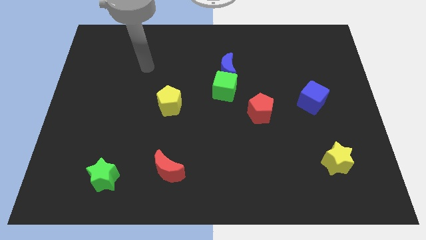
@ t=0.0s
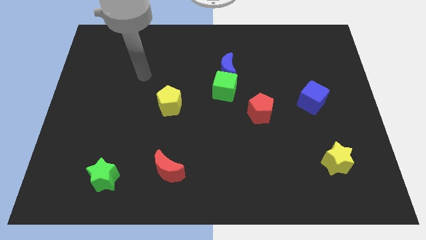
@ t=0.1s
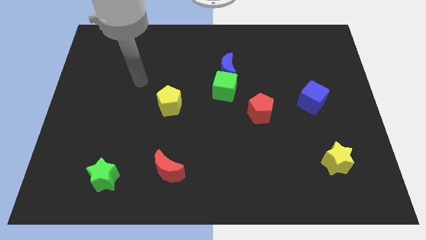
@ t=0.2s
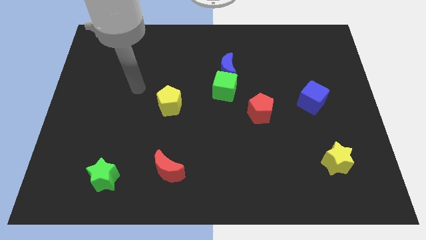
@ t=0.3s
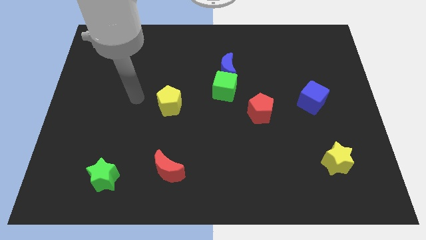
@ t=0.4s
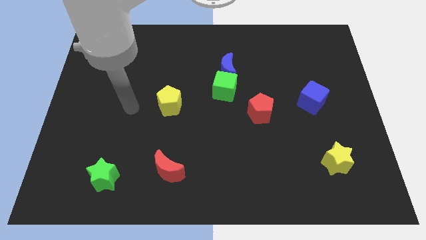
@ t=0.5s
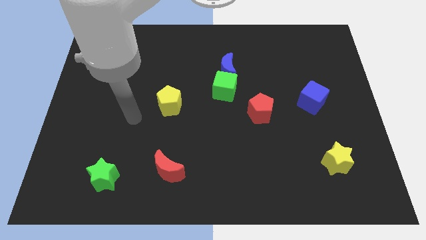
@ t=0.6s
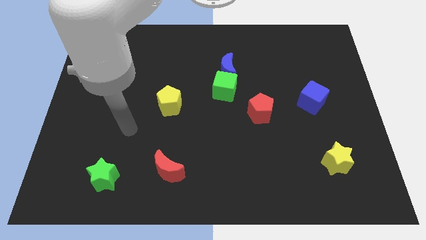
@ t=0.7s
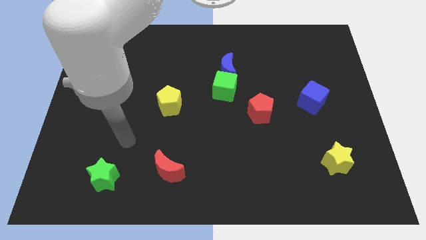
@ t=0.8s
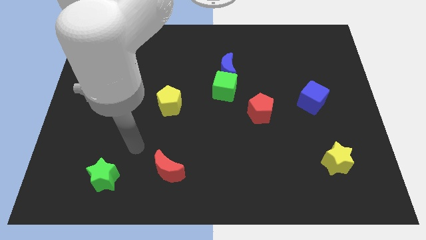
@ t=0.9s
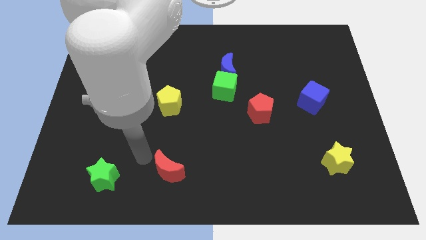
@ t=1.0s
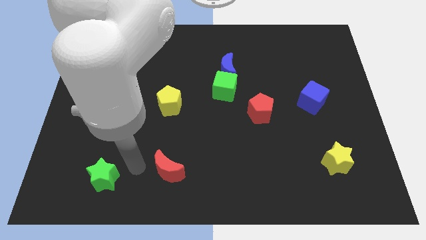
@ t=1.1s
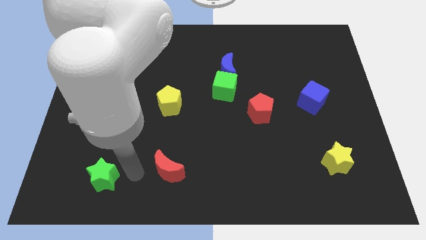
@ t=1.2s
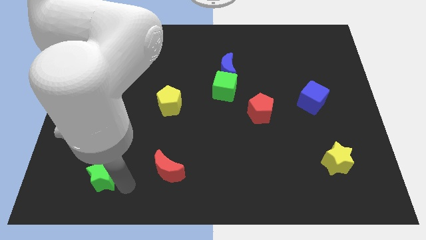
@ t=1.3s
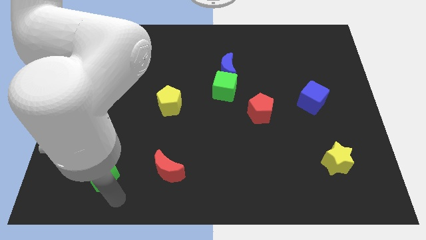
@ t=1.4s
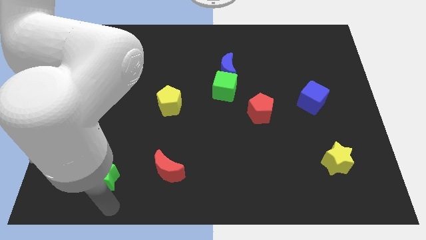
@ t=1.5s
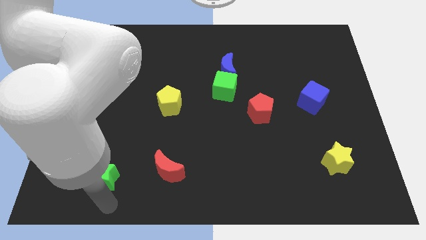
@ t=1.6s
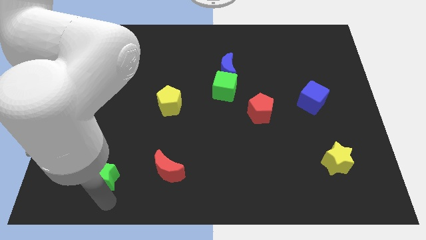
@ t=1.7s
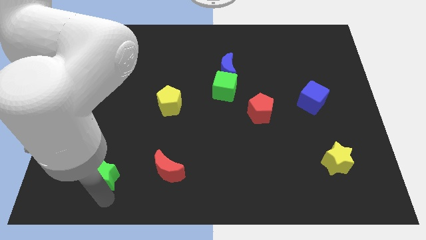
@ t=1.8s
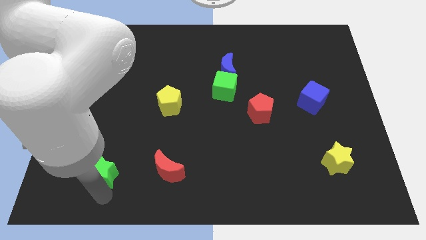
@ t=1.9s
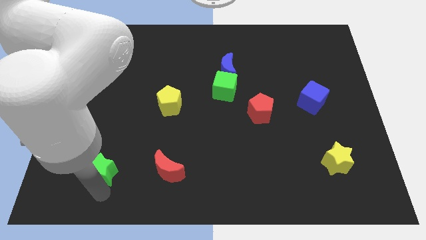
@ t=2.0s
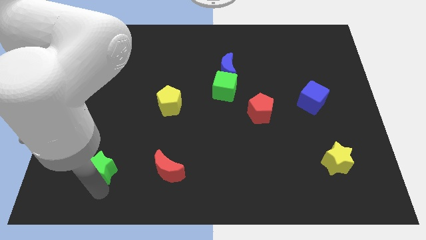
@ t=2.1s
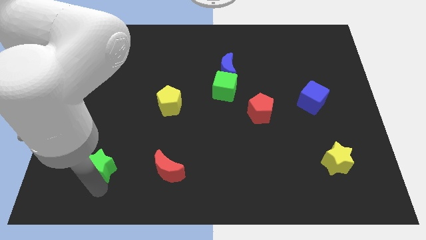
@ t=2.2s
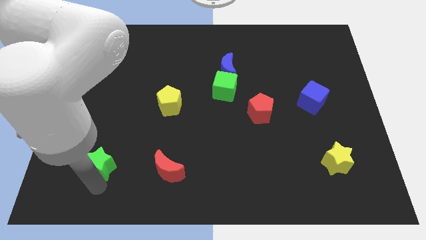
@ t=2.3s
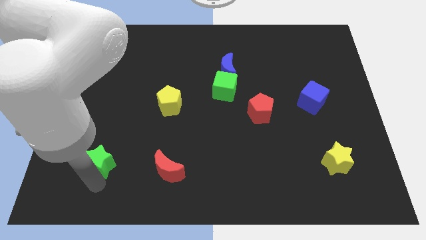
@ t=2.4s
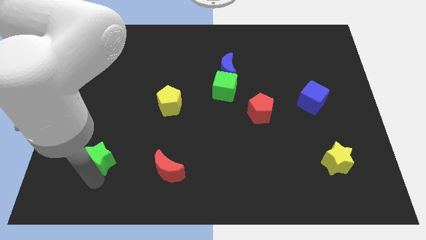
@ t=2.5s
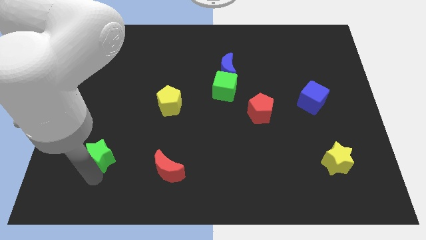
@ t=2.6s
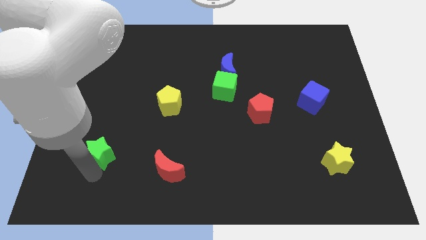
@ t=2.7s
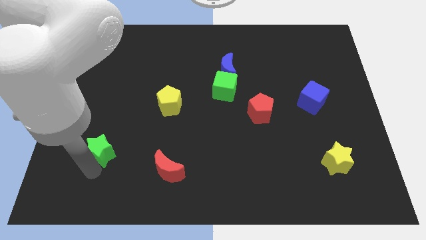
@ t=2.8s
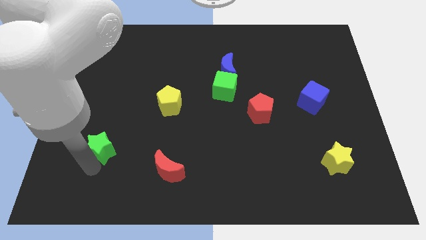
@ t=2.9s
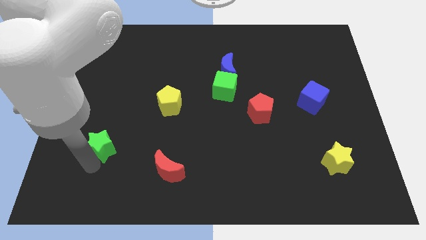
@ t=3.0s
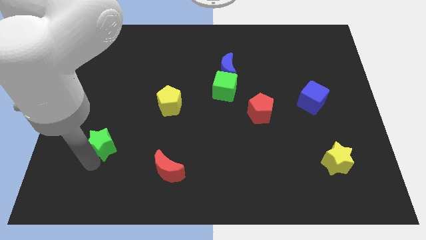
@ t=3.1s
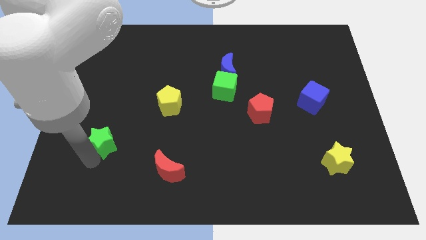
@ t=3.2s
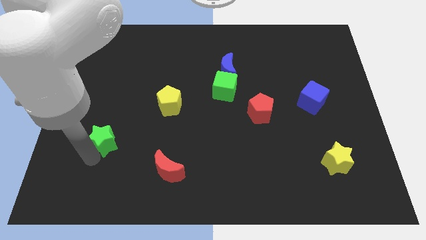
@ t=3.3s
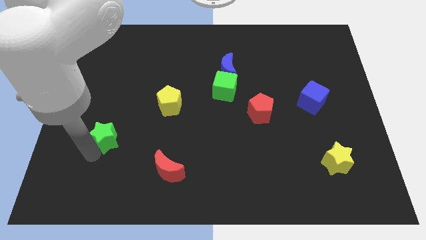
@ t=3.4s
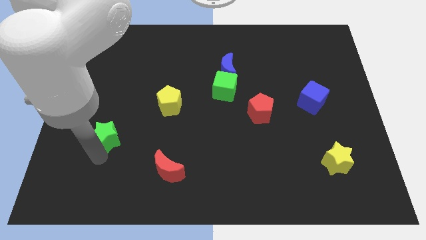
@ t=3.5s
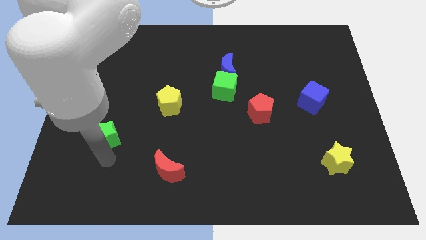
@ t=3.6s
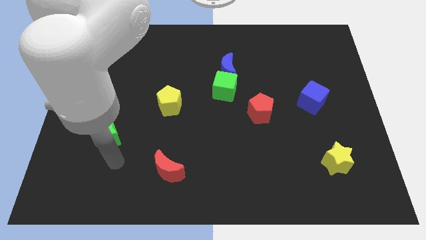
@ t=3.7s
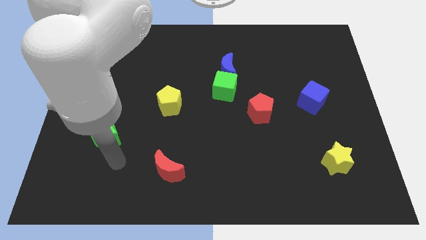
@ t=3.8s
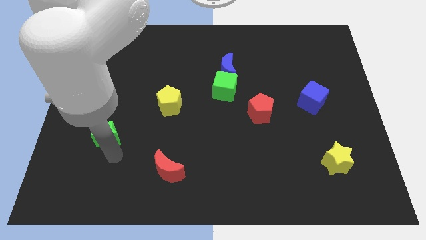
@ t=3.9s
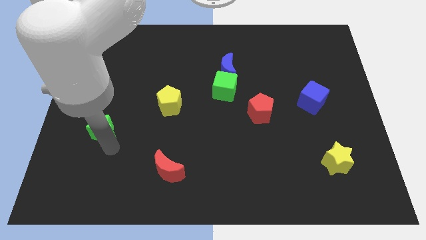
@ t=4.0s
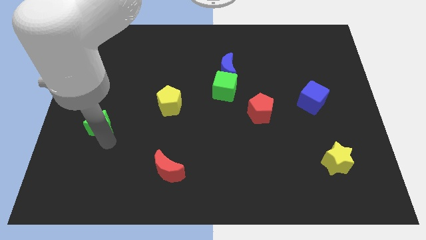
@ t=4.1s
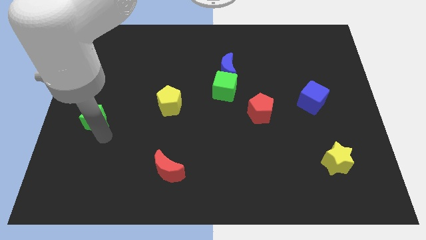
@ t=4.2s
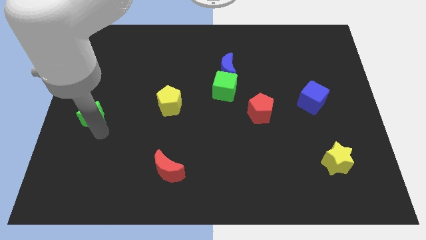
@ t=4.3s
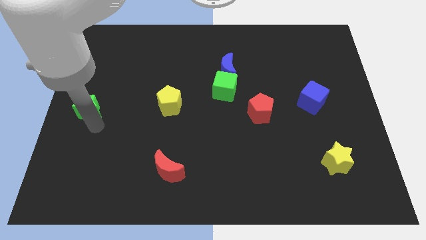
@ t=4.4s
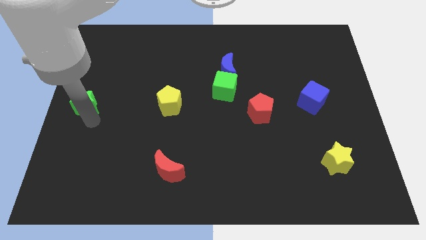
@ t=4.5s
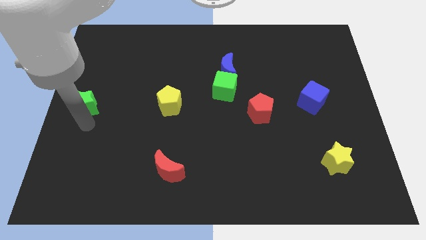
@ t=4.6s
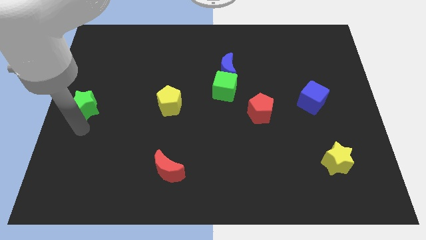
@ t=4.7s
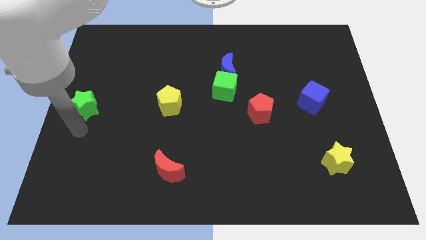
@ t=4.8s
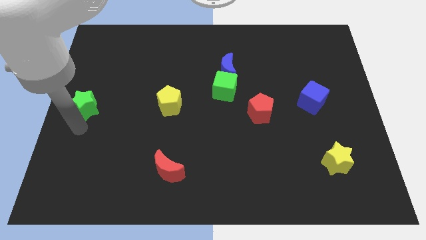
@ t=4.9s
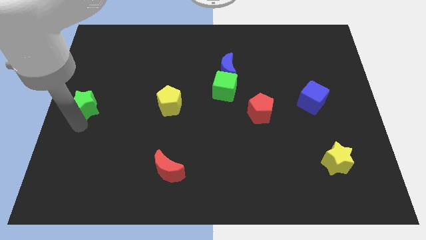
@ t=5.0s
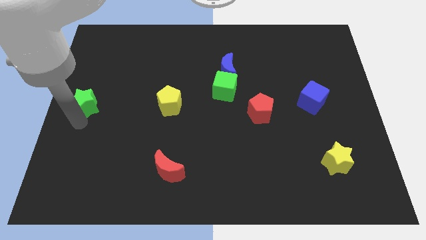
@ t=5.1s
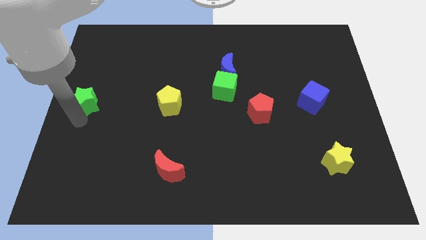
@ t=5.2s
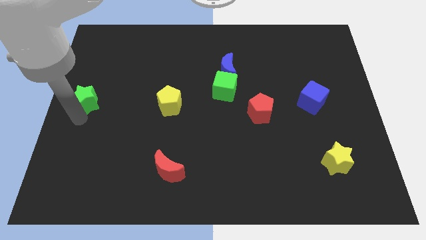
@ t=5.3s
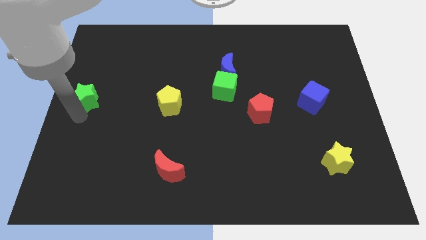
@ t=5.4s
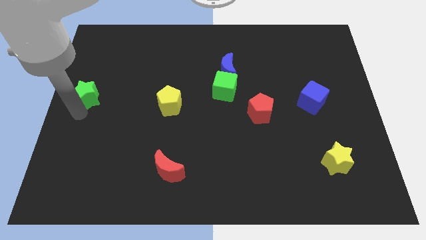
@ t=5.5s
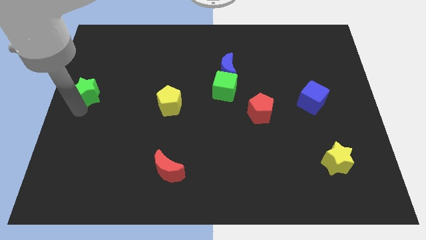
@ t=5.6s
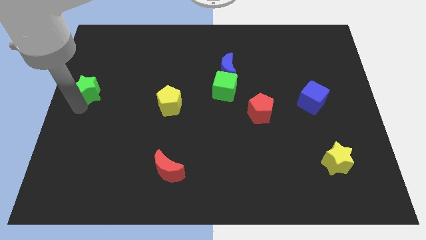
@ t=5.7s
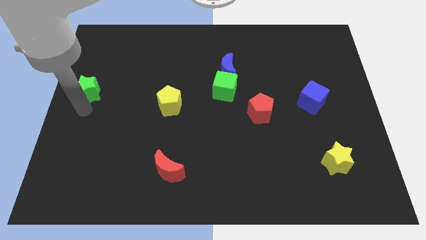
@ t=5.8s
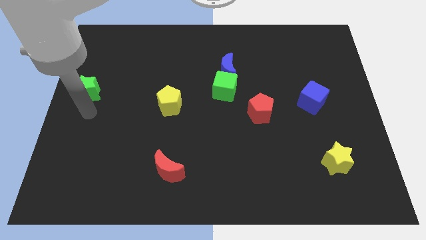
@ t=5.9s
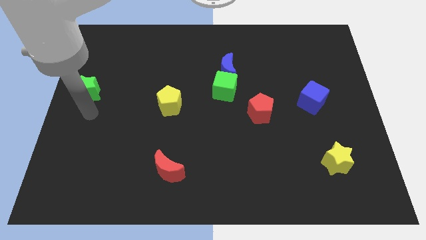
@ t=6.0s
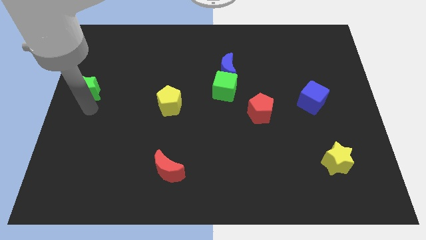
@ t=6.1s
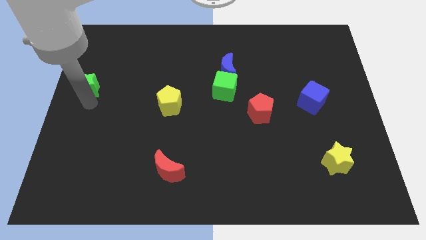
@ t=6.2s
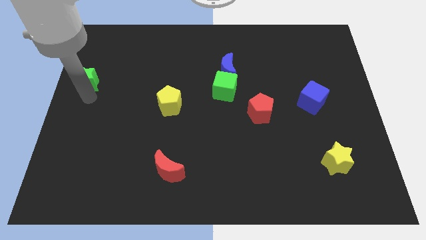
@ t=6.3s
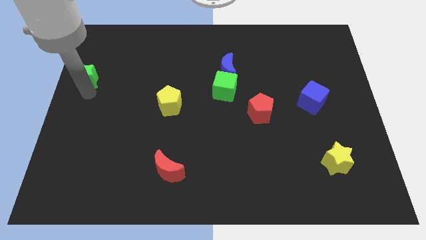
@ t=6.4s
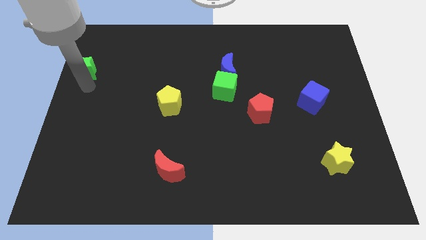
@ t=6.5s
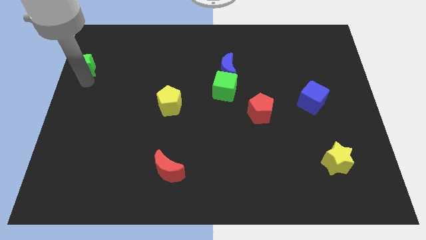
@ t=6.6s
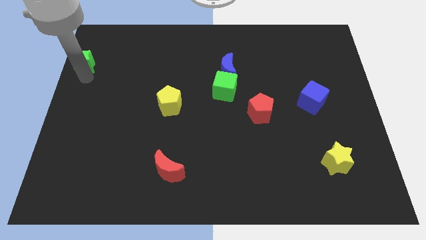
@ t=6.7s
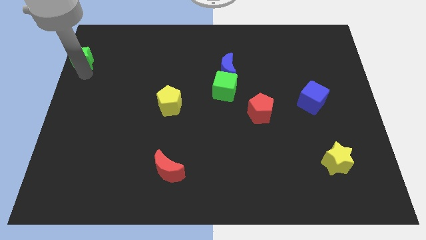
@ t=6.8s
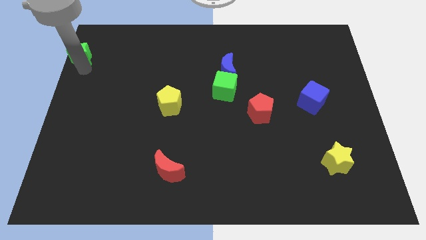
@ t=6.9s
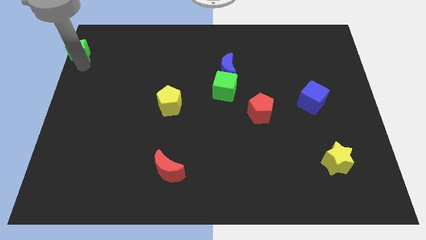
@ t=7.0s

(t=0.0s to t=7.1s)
push the green star to the top left of the board
